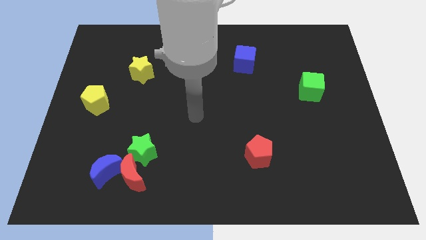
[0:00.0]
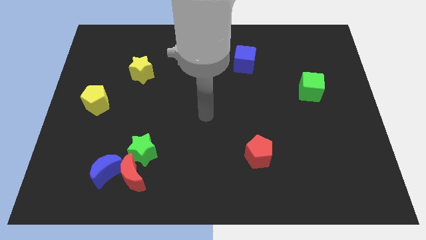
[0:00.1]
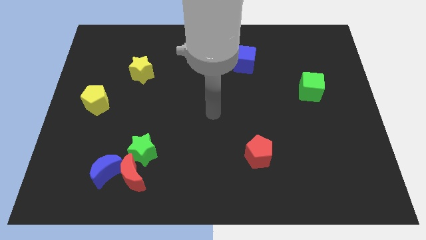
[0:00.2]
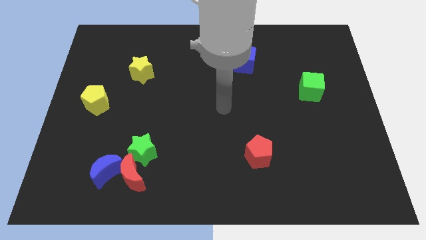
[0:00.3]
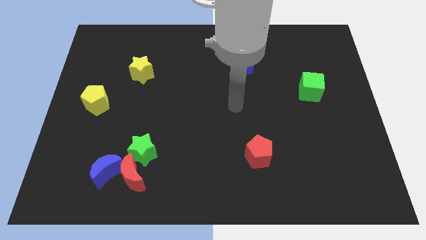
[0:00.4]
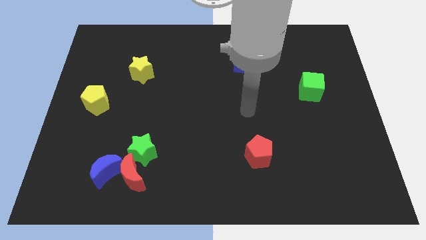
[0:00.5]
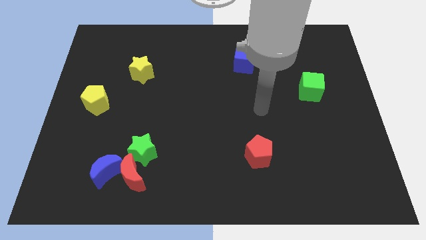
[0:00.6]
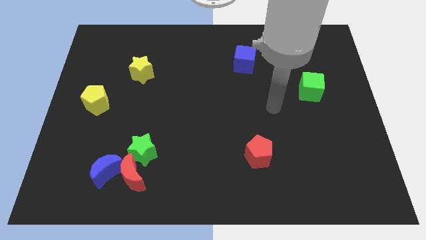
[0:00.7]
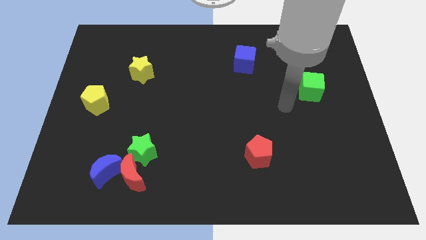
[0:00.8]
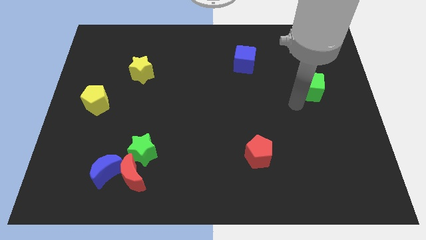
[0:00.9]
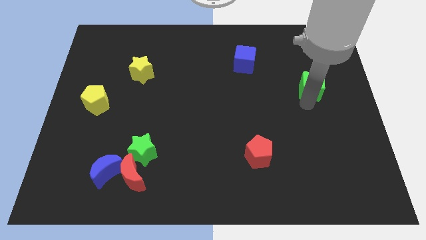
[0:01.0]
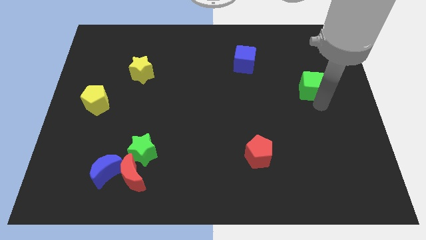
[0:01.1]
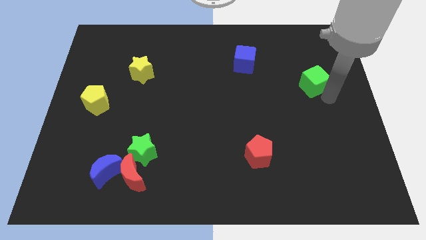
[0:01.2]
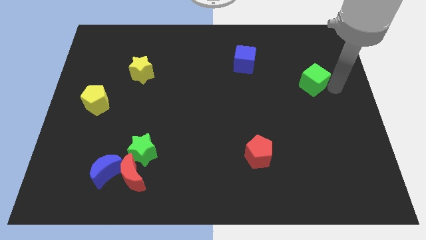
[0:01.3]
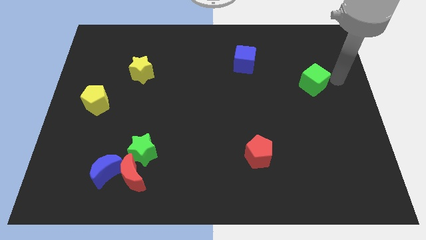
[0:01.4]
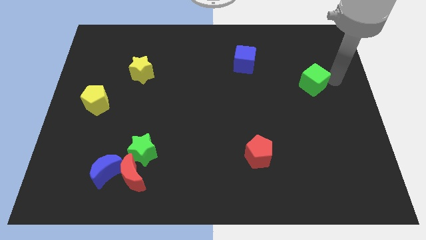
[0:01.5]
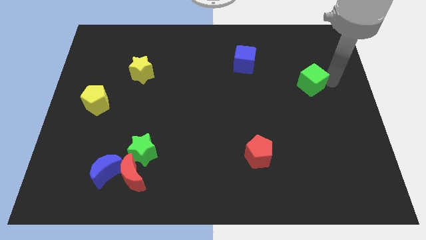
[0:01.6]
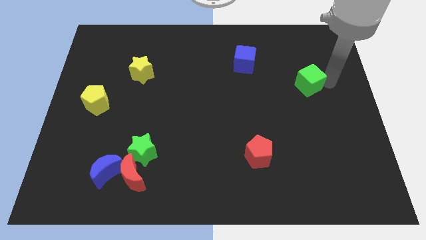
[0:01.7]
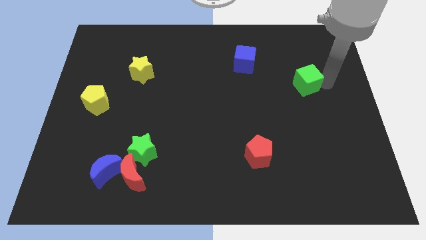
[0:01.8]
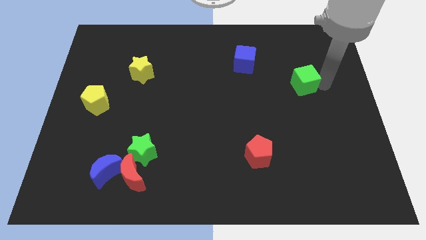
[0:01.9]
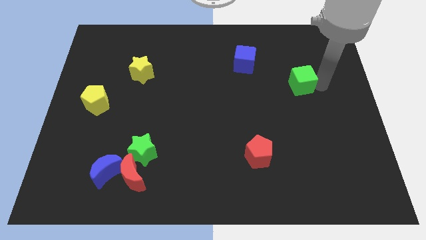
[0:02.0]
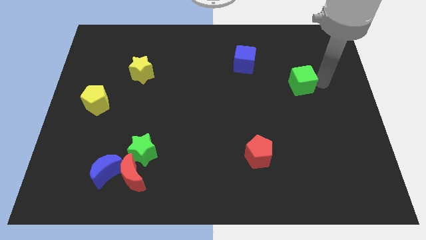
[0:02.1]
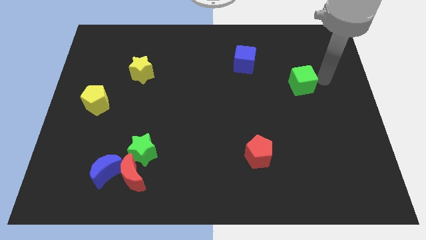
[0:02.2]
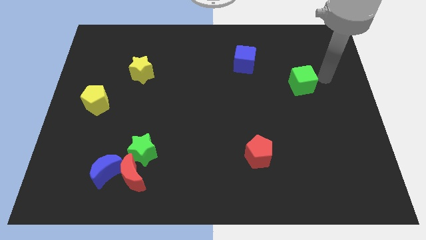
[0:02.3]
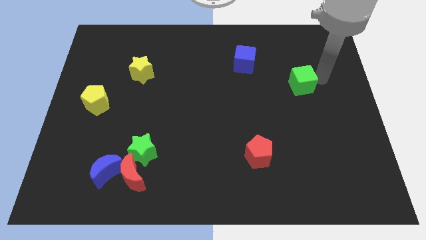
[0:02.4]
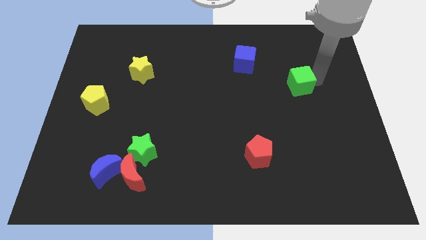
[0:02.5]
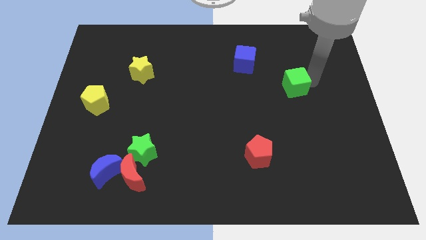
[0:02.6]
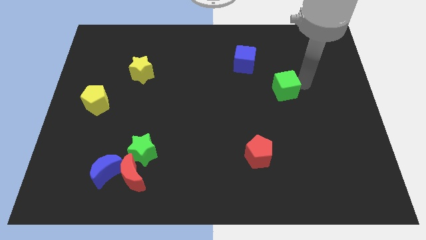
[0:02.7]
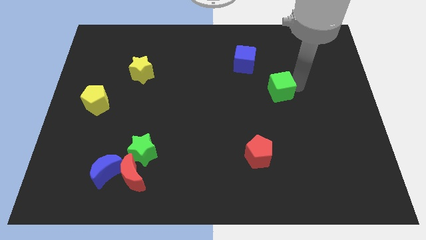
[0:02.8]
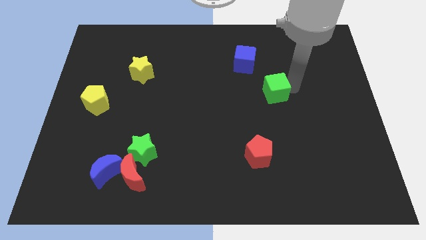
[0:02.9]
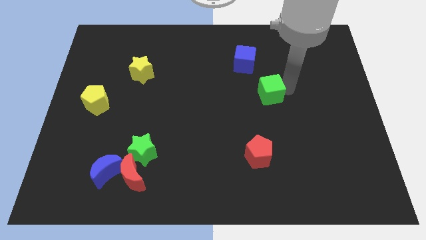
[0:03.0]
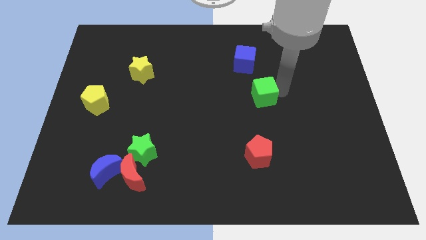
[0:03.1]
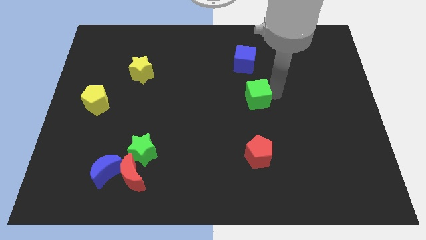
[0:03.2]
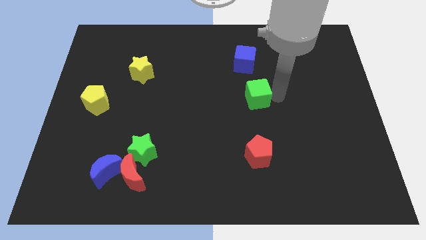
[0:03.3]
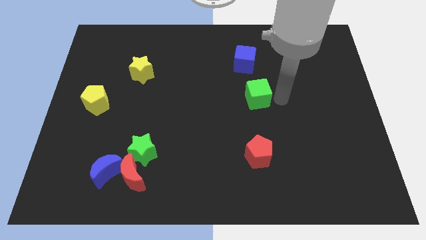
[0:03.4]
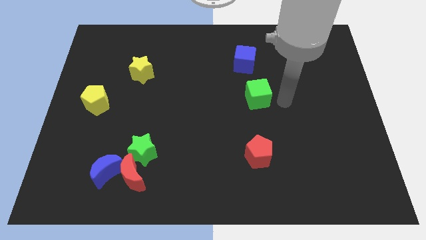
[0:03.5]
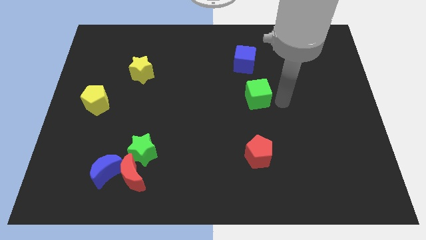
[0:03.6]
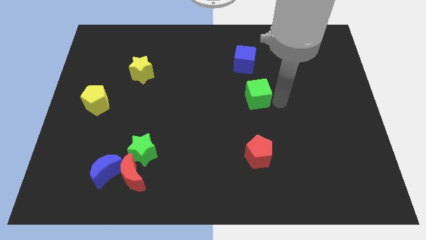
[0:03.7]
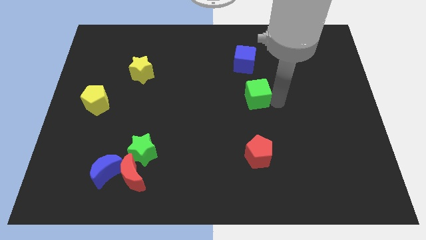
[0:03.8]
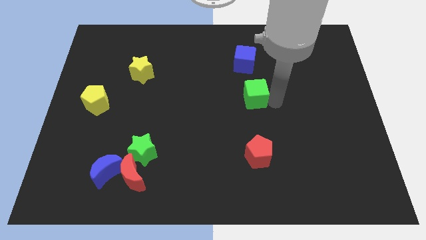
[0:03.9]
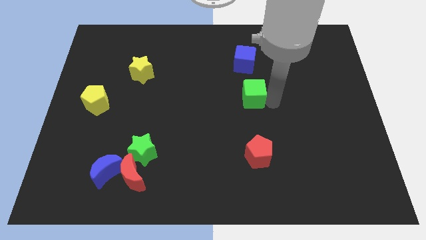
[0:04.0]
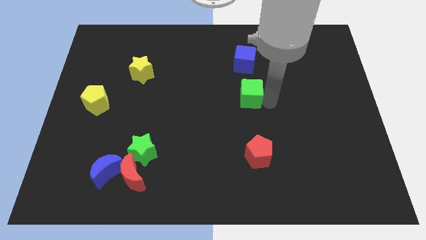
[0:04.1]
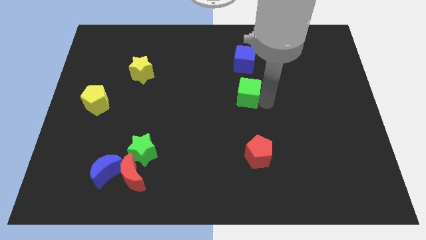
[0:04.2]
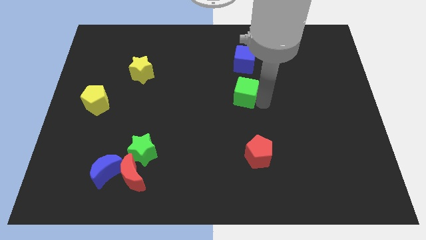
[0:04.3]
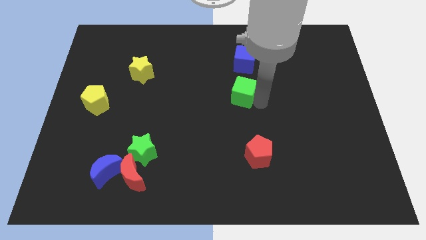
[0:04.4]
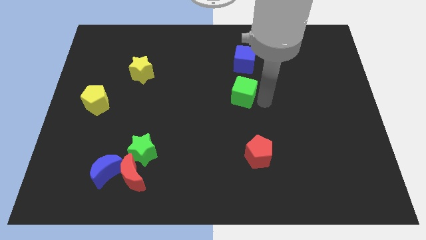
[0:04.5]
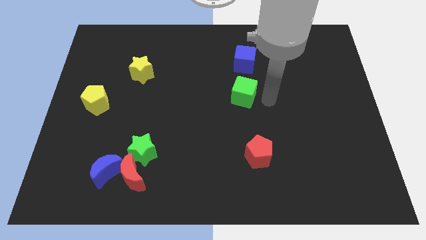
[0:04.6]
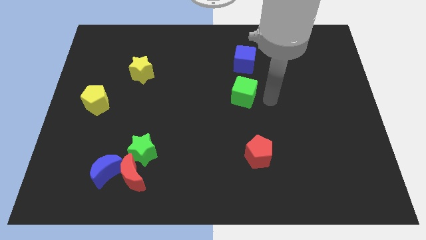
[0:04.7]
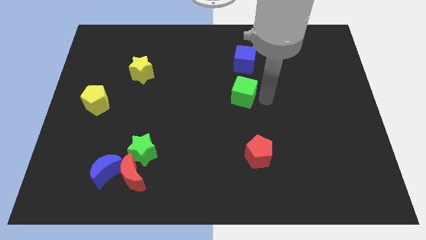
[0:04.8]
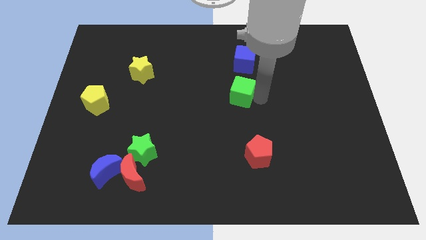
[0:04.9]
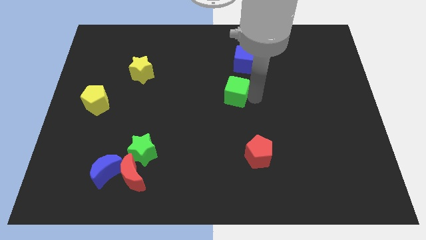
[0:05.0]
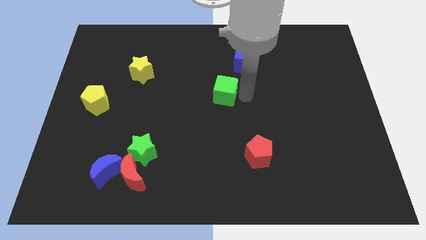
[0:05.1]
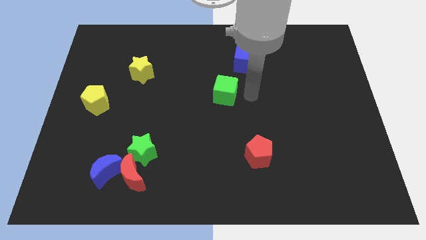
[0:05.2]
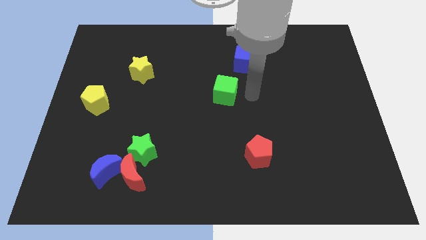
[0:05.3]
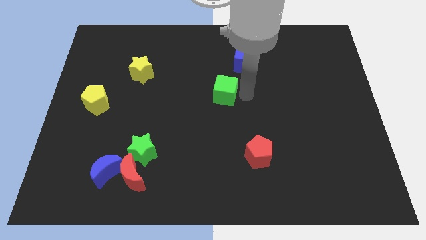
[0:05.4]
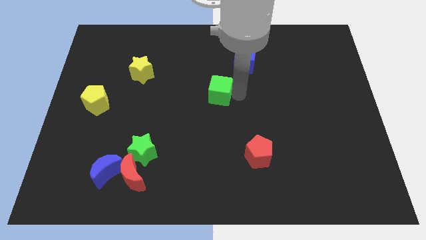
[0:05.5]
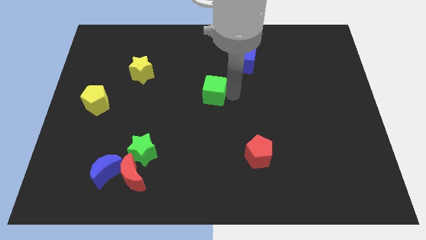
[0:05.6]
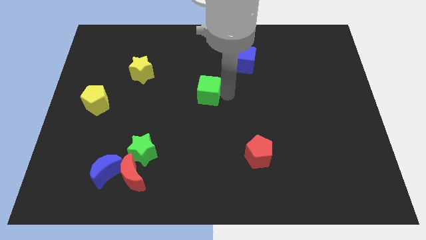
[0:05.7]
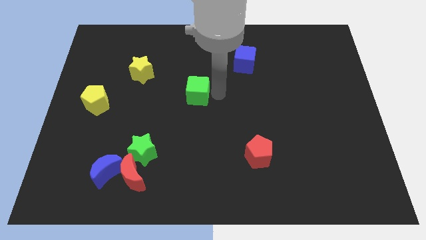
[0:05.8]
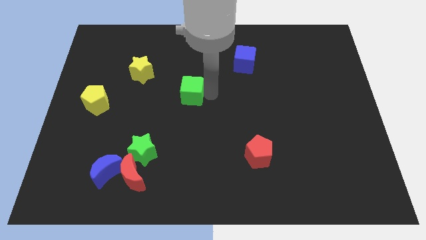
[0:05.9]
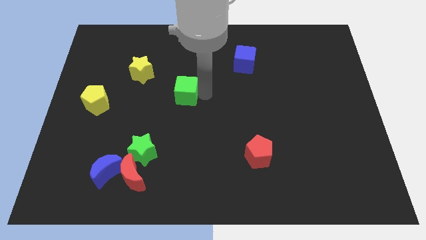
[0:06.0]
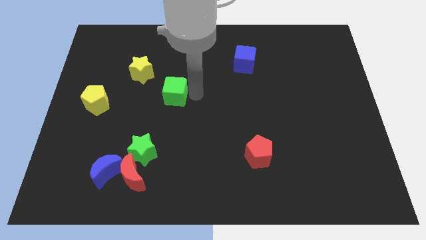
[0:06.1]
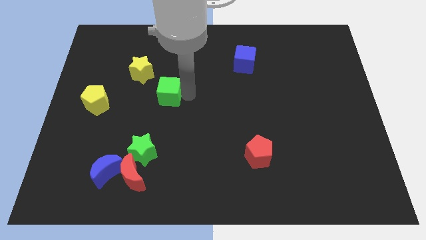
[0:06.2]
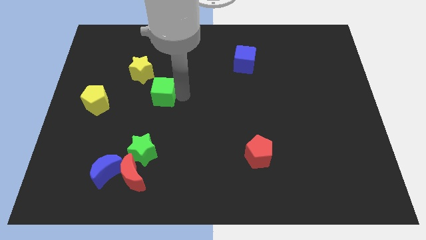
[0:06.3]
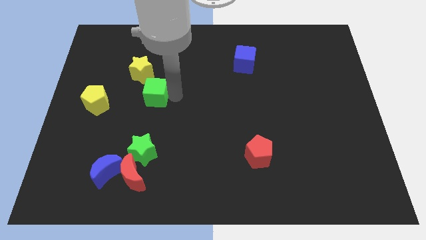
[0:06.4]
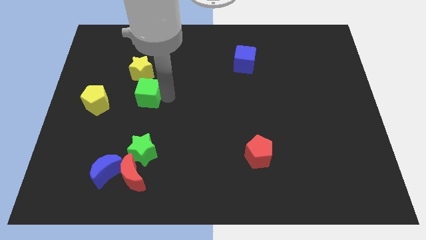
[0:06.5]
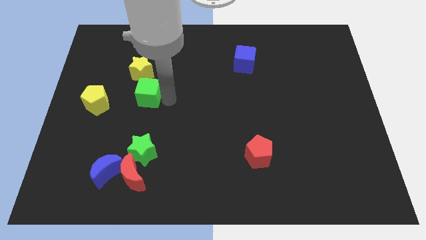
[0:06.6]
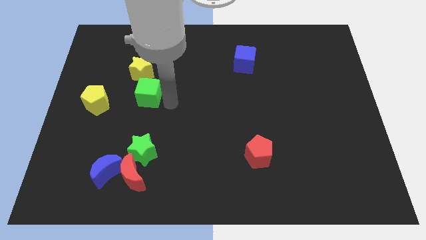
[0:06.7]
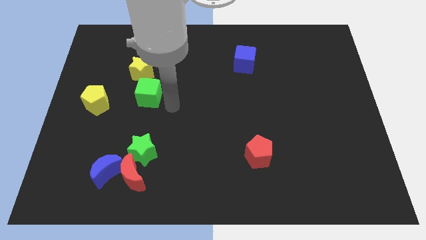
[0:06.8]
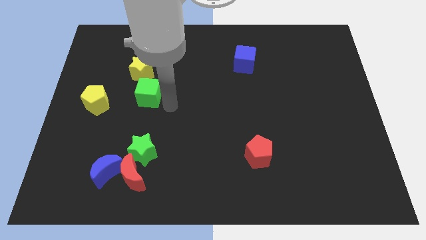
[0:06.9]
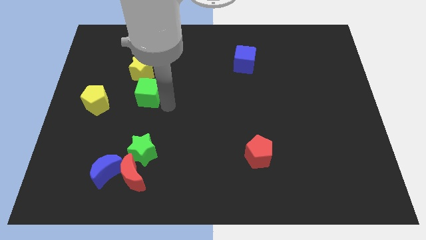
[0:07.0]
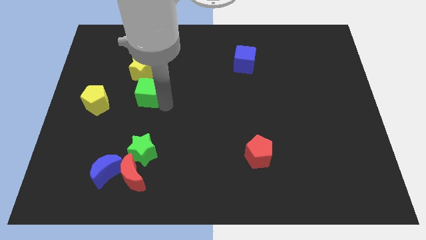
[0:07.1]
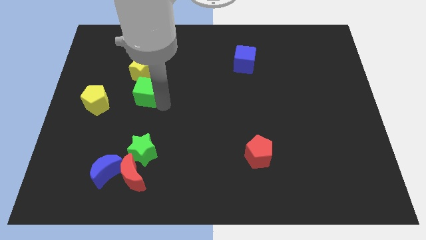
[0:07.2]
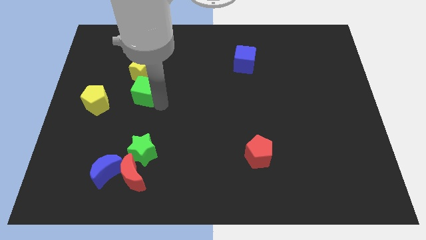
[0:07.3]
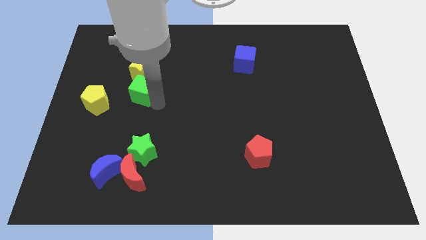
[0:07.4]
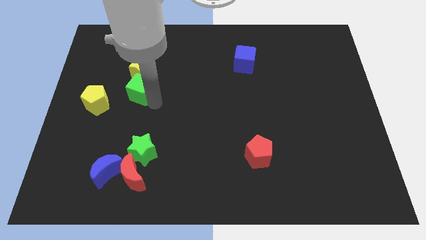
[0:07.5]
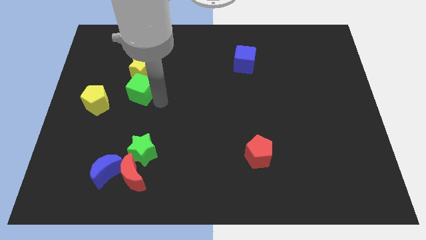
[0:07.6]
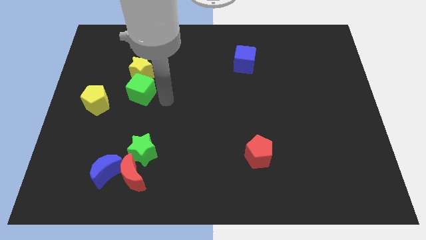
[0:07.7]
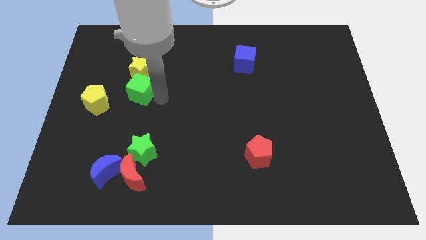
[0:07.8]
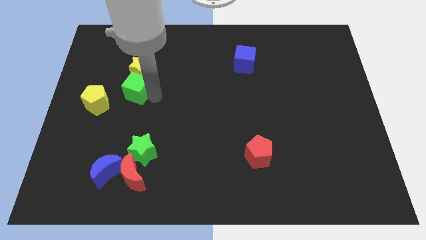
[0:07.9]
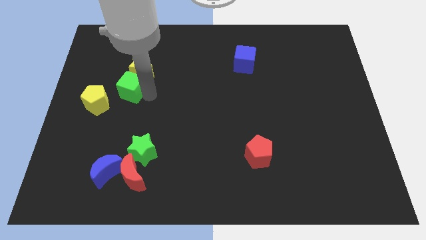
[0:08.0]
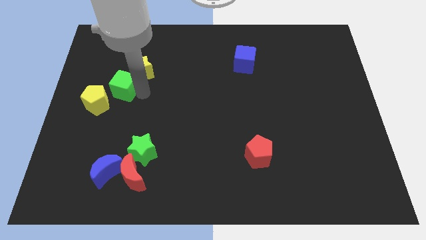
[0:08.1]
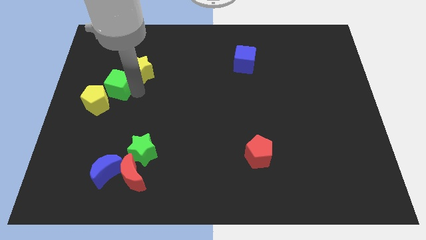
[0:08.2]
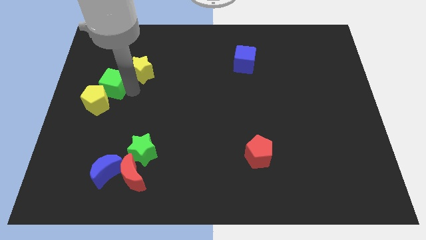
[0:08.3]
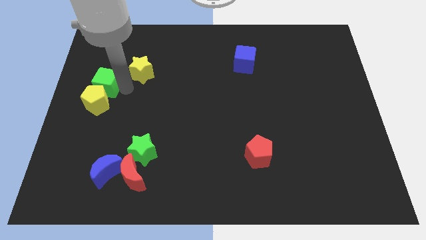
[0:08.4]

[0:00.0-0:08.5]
move the green cube to the center left
